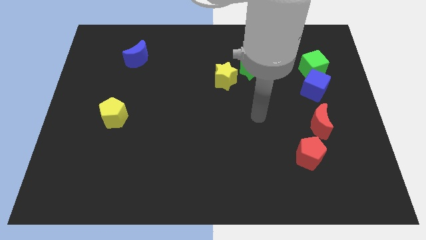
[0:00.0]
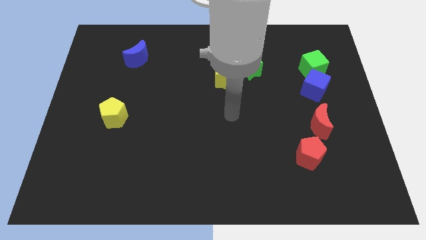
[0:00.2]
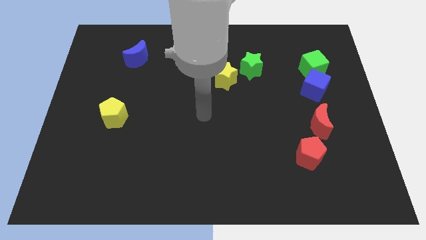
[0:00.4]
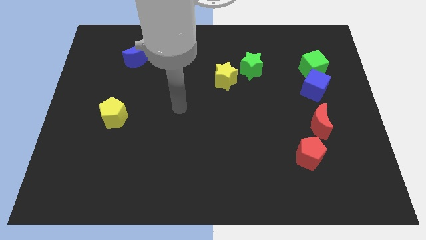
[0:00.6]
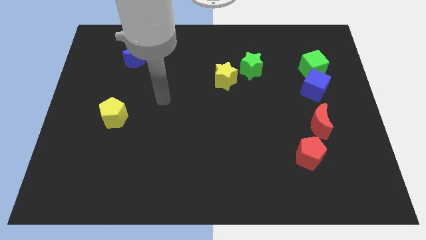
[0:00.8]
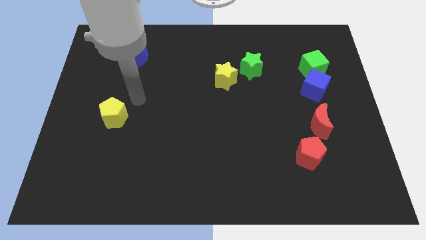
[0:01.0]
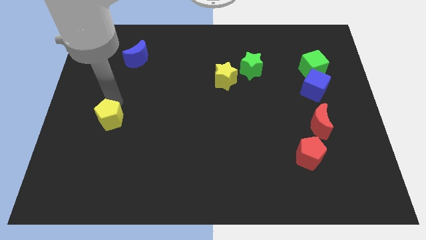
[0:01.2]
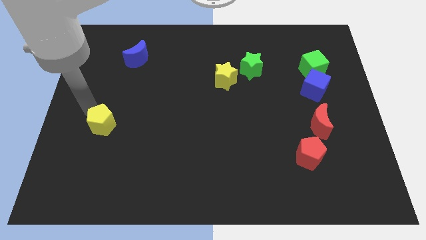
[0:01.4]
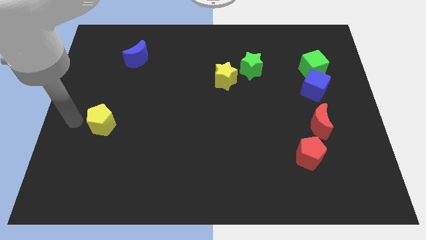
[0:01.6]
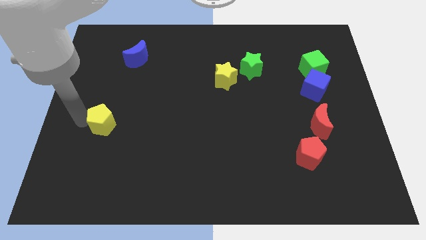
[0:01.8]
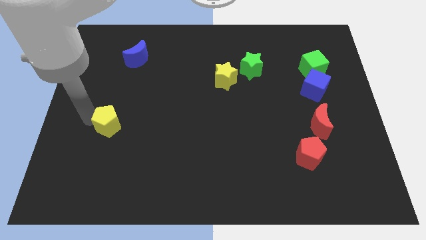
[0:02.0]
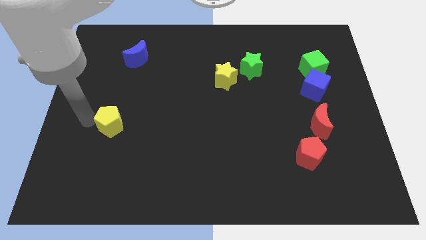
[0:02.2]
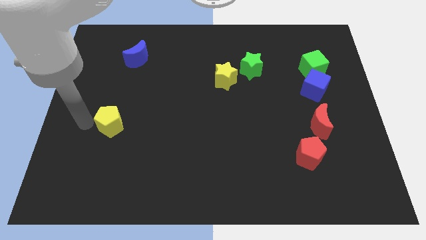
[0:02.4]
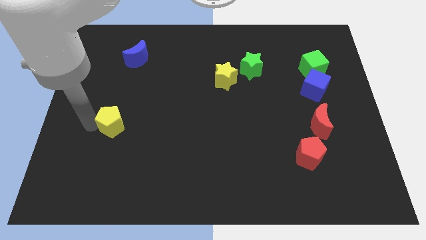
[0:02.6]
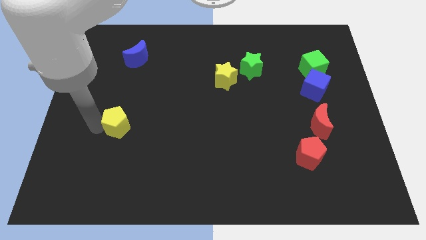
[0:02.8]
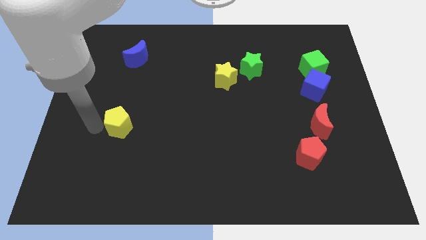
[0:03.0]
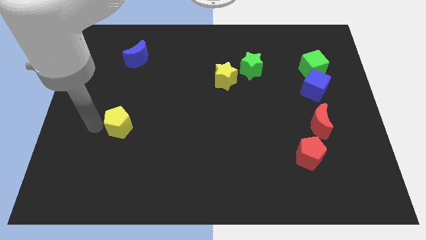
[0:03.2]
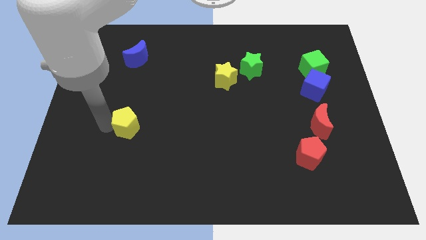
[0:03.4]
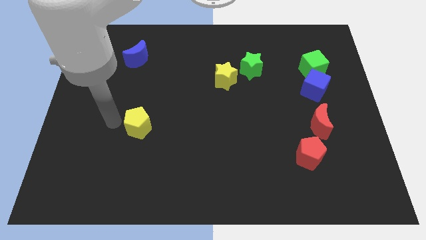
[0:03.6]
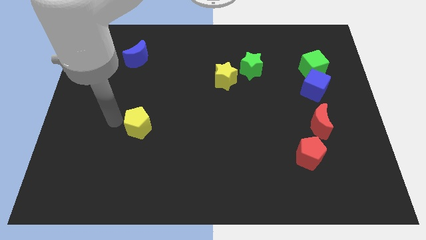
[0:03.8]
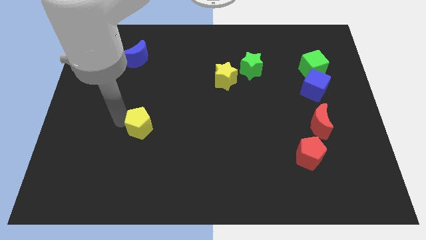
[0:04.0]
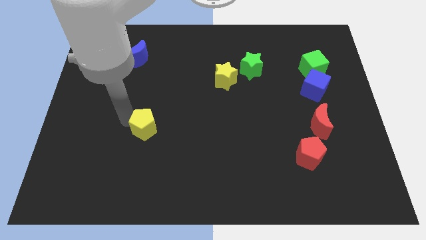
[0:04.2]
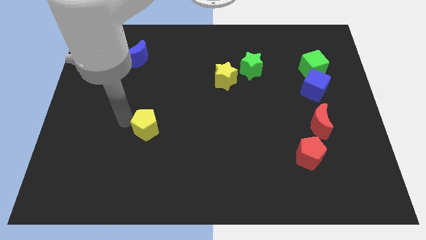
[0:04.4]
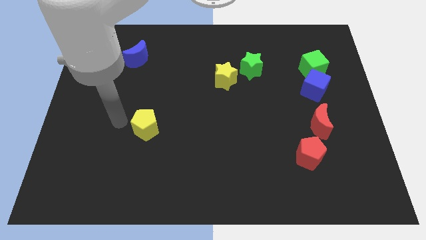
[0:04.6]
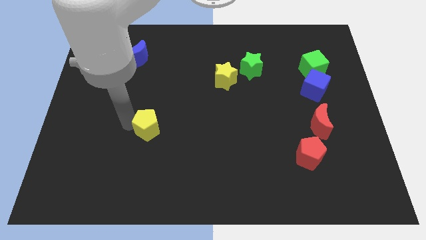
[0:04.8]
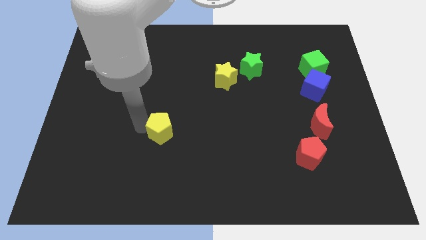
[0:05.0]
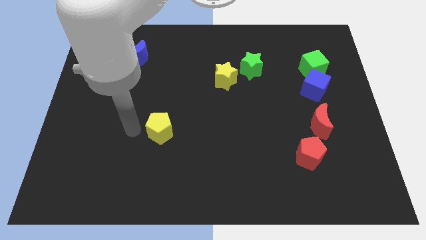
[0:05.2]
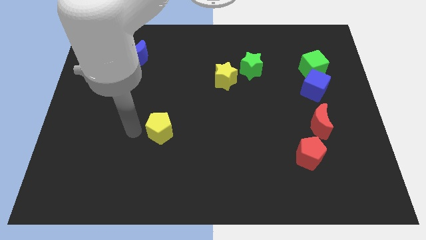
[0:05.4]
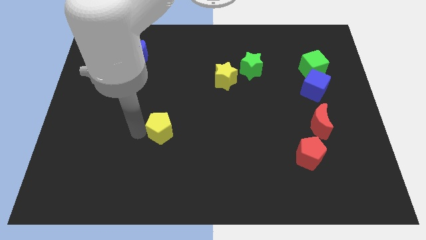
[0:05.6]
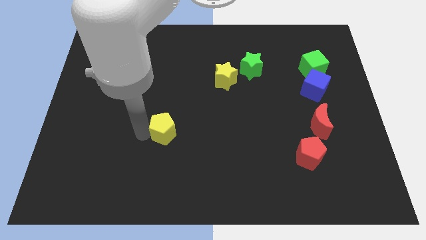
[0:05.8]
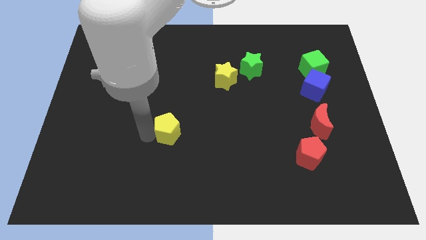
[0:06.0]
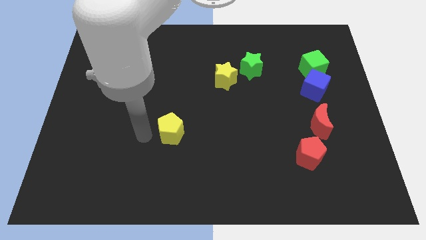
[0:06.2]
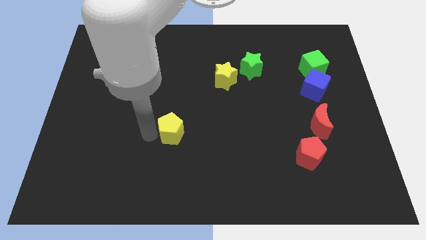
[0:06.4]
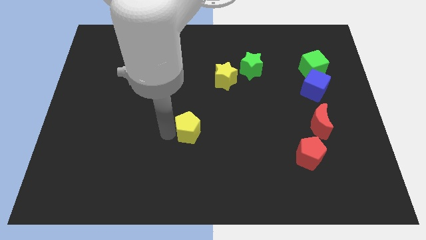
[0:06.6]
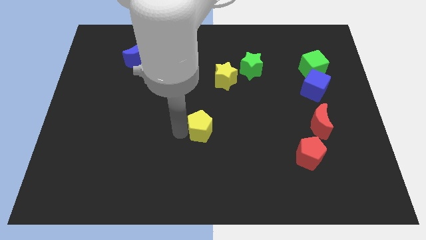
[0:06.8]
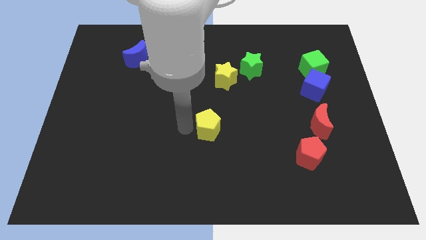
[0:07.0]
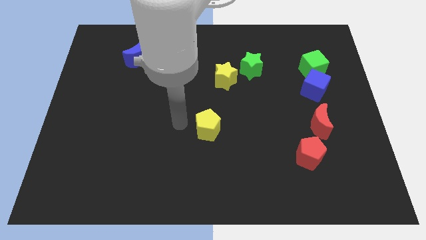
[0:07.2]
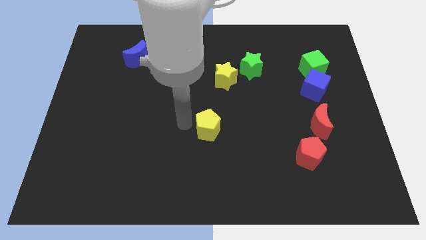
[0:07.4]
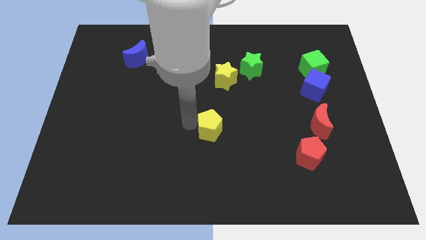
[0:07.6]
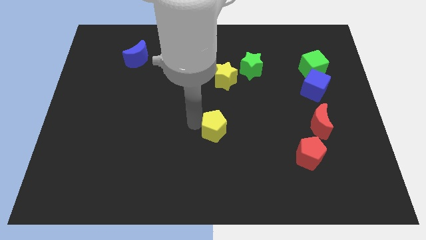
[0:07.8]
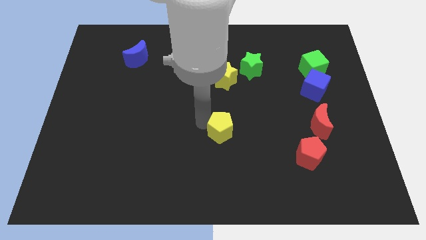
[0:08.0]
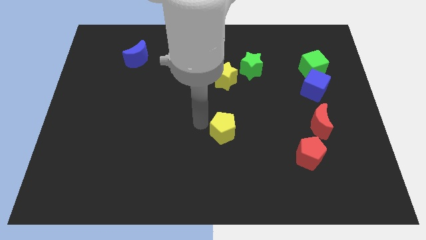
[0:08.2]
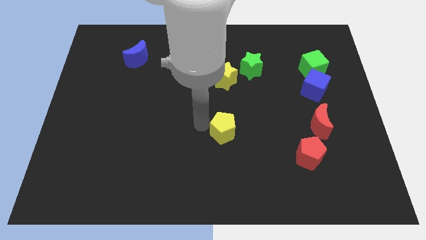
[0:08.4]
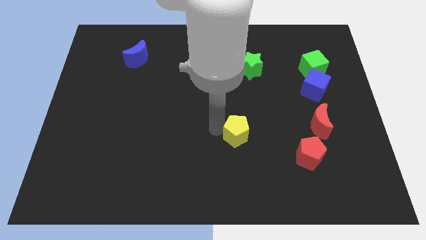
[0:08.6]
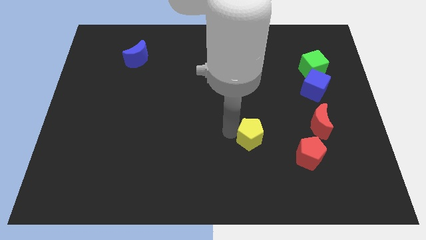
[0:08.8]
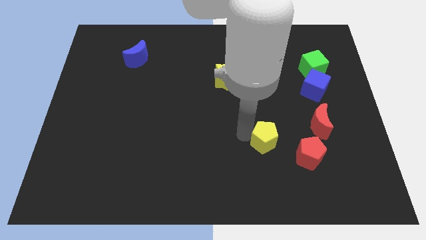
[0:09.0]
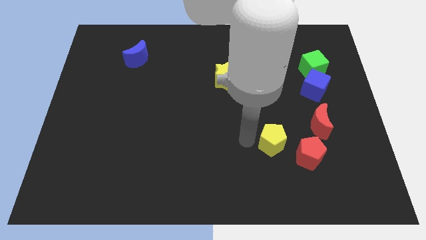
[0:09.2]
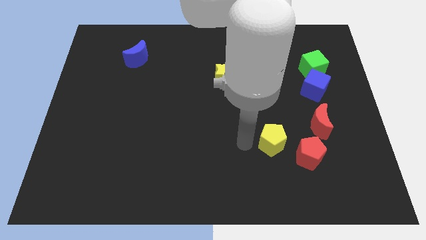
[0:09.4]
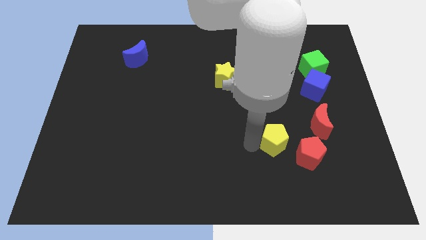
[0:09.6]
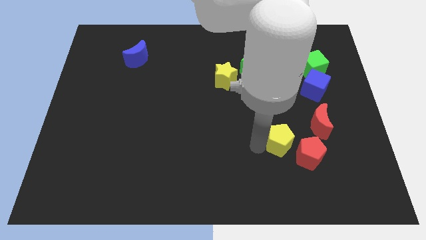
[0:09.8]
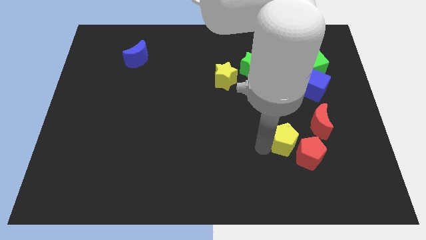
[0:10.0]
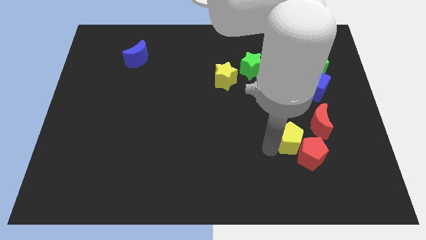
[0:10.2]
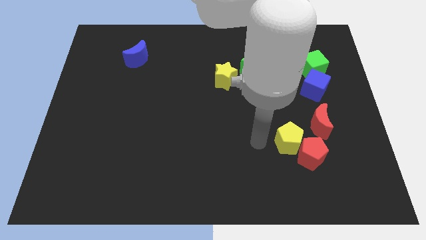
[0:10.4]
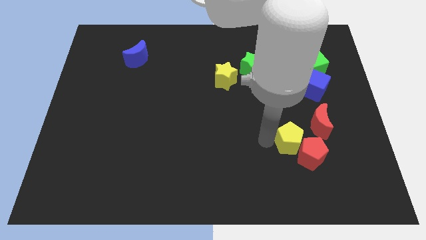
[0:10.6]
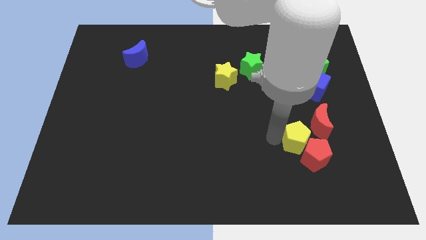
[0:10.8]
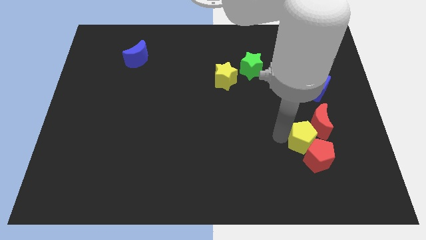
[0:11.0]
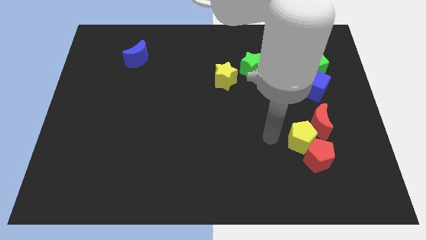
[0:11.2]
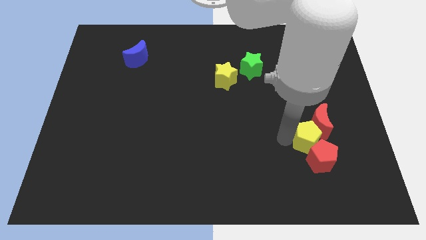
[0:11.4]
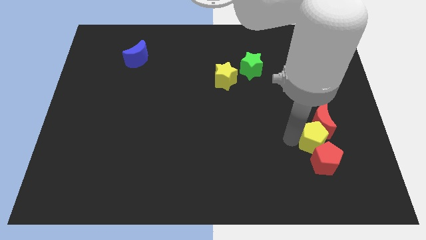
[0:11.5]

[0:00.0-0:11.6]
push the yellow pentagon to the bottom of the blue cube

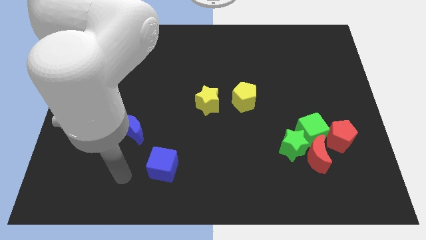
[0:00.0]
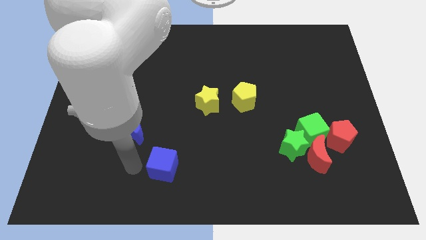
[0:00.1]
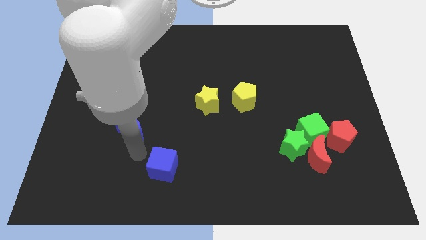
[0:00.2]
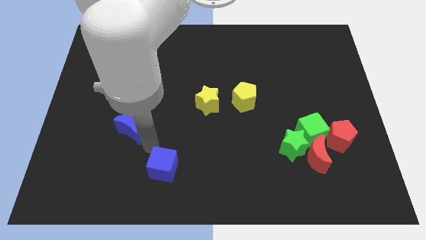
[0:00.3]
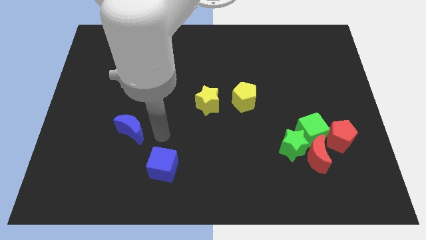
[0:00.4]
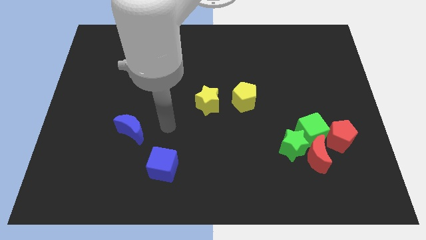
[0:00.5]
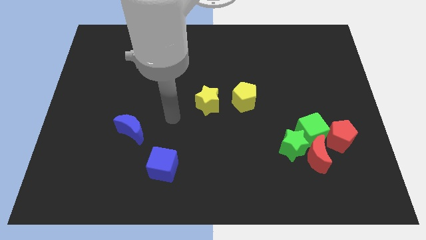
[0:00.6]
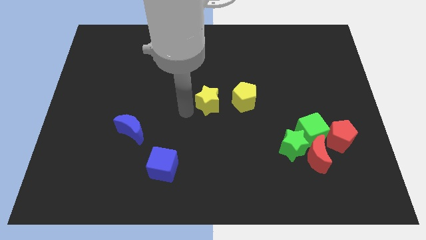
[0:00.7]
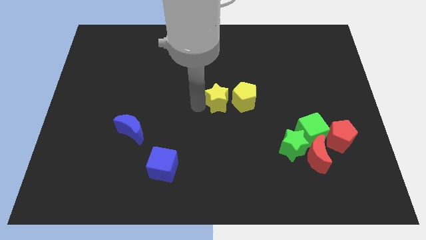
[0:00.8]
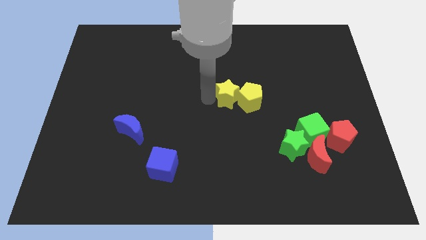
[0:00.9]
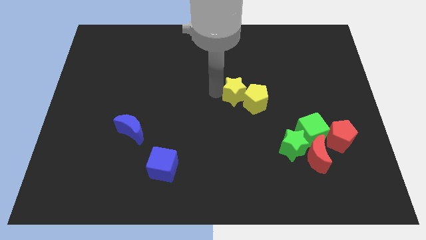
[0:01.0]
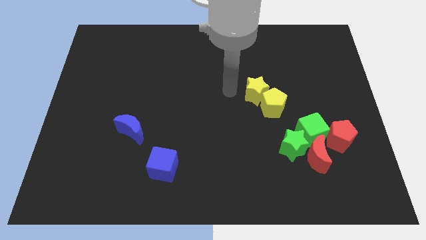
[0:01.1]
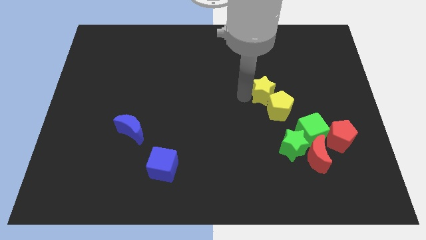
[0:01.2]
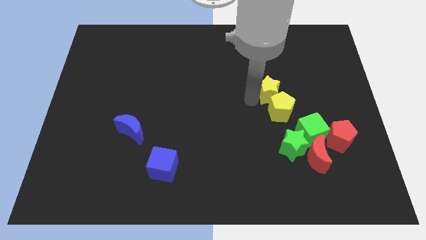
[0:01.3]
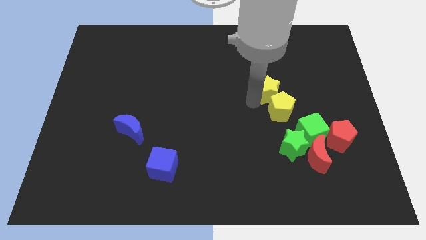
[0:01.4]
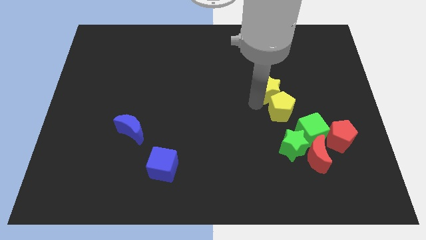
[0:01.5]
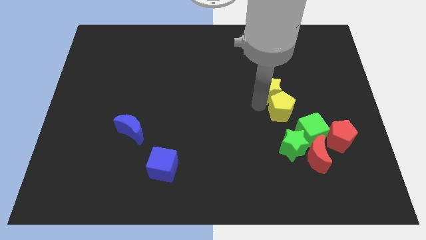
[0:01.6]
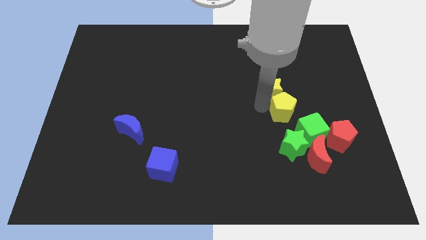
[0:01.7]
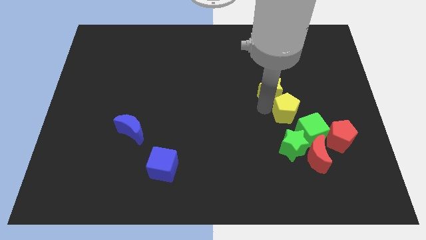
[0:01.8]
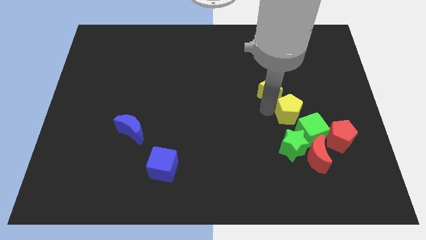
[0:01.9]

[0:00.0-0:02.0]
put the yellow pentagon to the top side of the red moon
